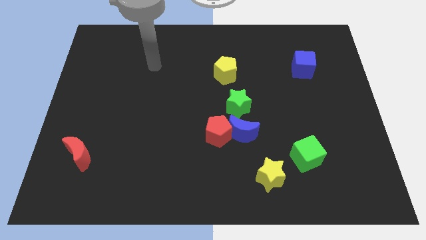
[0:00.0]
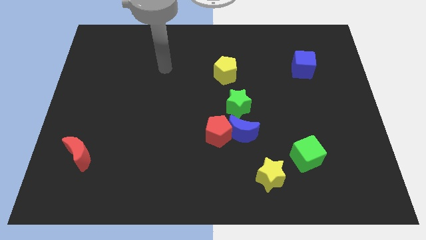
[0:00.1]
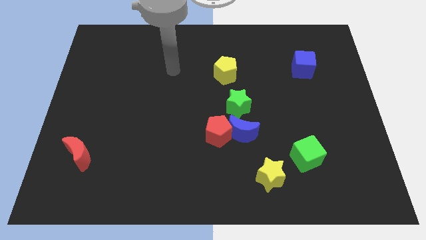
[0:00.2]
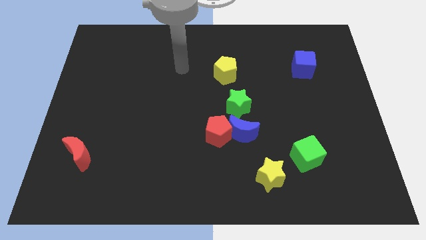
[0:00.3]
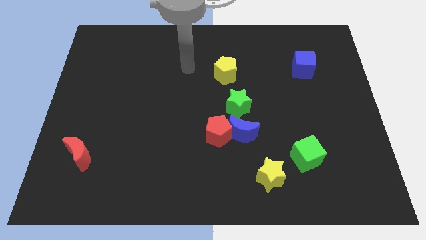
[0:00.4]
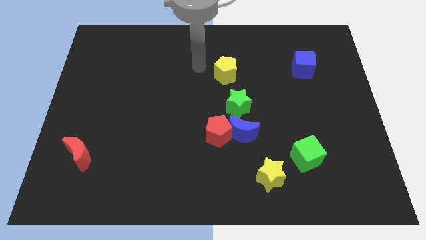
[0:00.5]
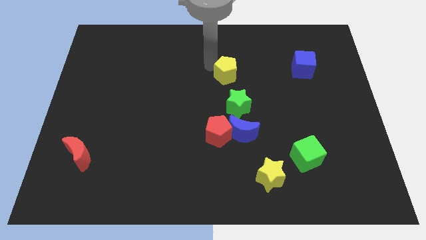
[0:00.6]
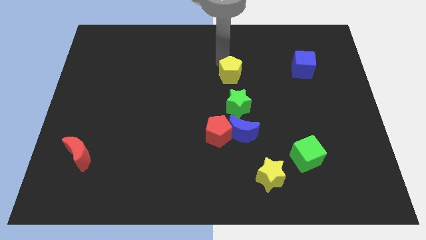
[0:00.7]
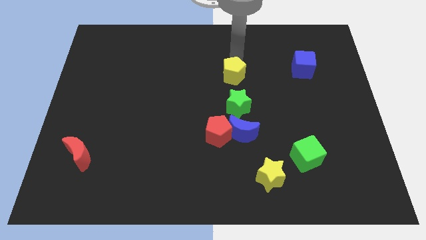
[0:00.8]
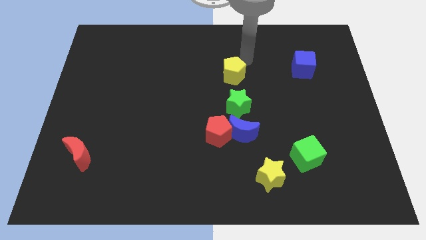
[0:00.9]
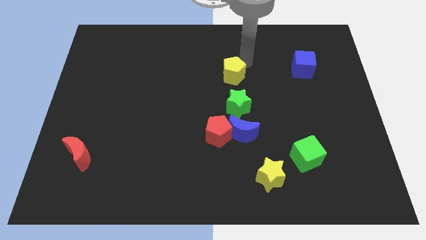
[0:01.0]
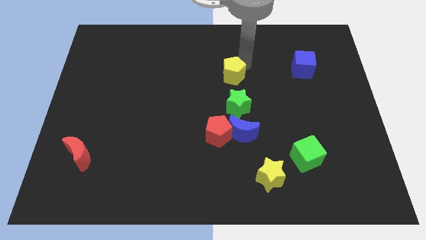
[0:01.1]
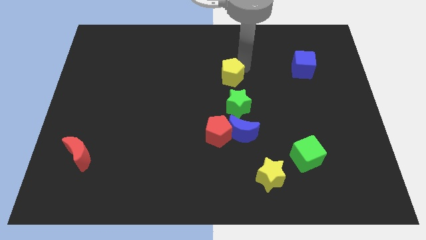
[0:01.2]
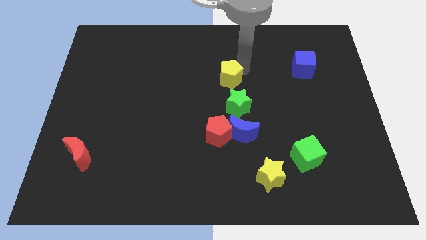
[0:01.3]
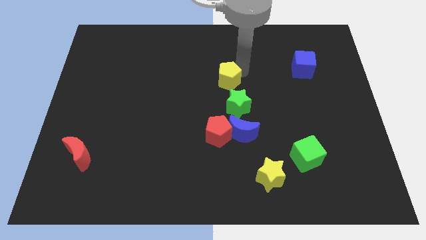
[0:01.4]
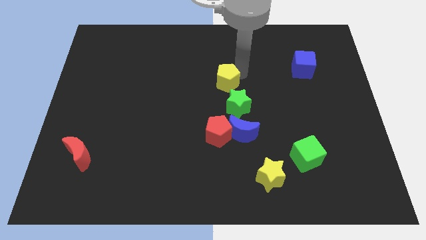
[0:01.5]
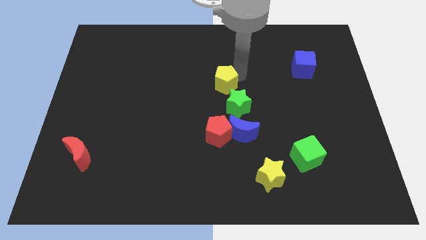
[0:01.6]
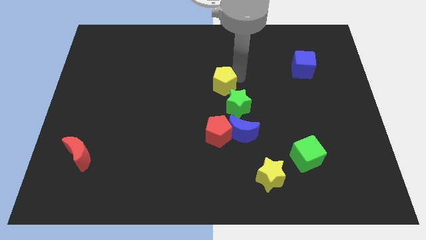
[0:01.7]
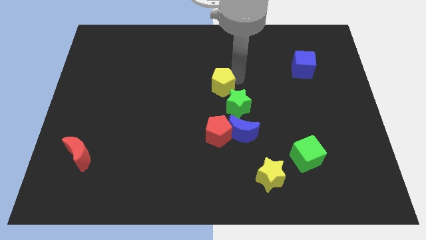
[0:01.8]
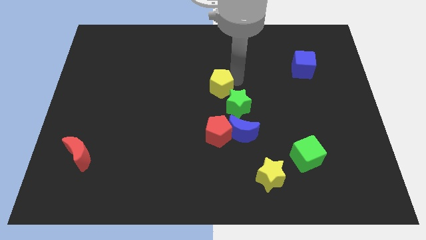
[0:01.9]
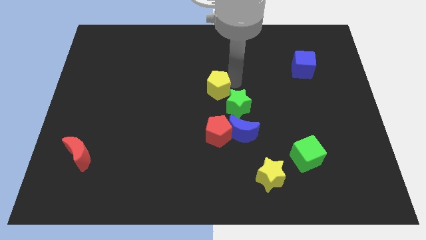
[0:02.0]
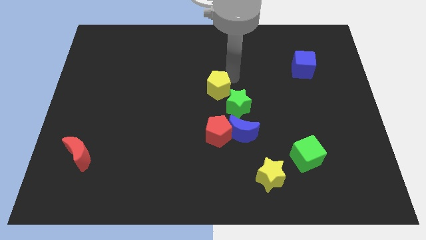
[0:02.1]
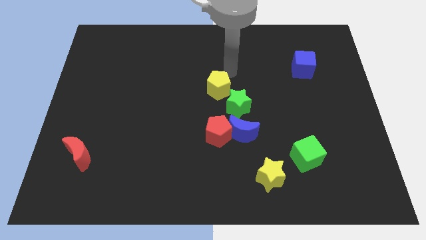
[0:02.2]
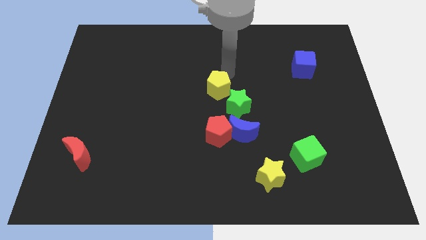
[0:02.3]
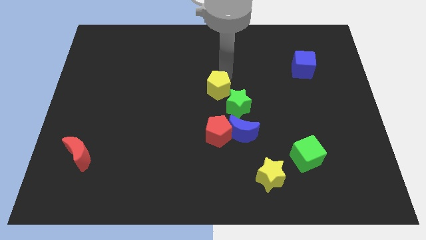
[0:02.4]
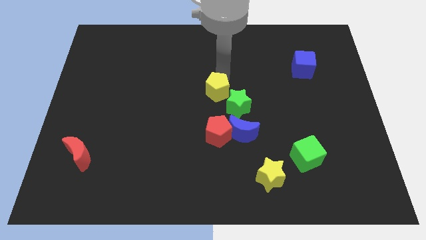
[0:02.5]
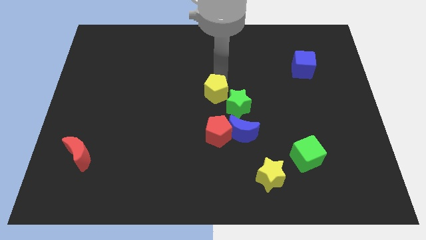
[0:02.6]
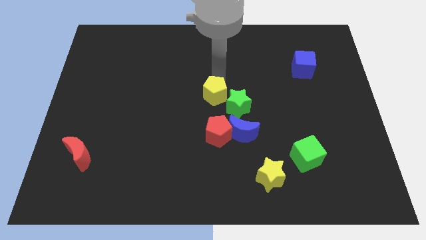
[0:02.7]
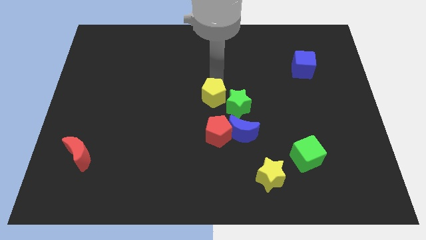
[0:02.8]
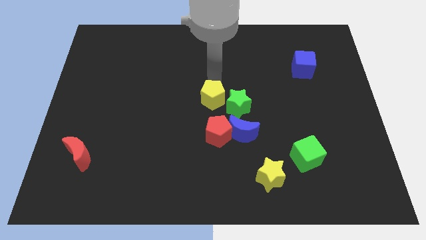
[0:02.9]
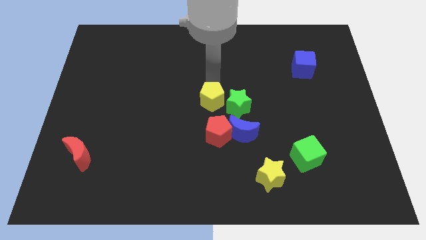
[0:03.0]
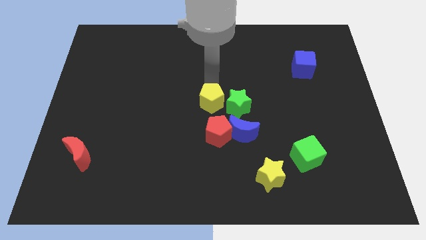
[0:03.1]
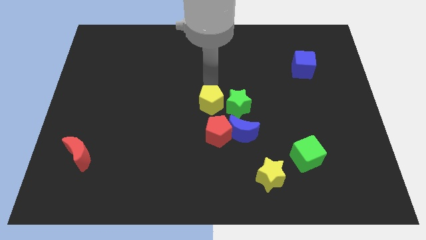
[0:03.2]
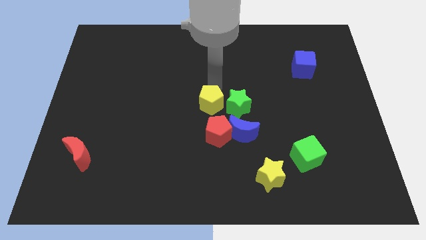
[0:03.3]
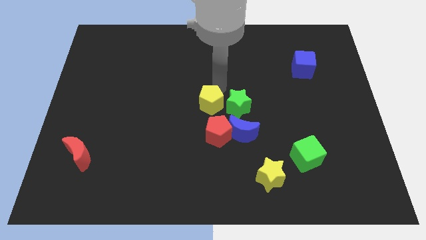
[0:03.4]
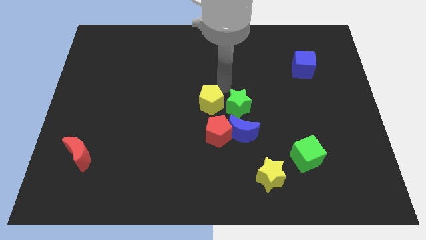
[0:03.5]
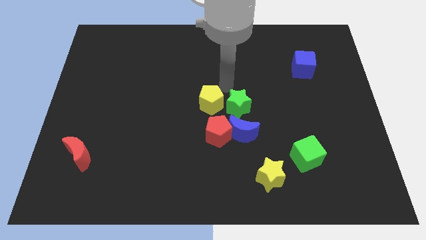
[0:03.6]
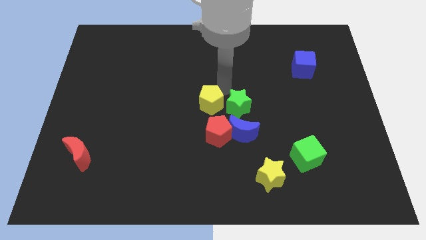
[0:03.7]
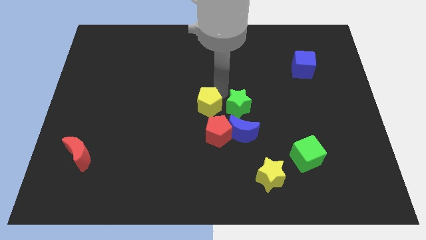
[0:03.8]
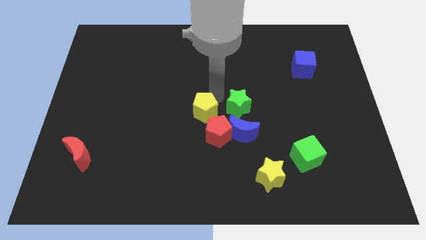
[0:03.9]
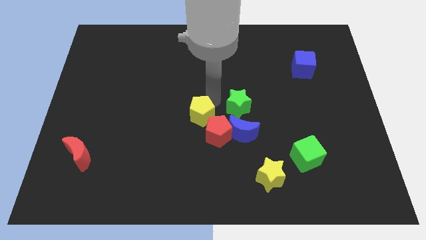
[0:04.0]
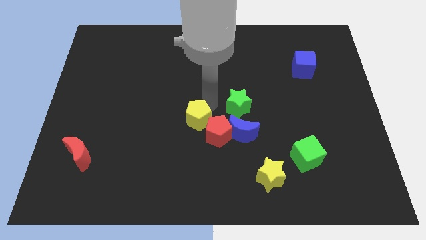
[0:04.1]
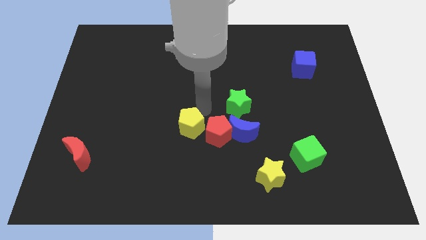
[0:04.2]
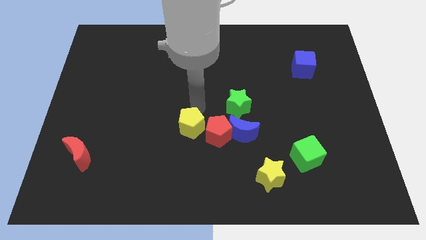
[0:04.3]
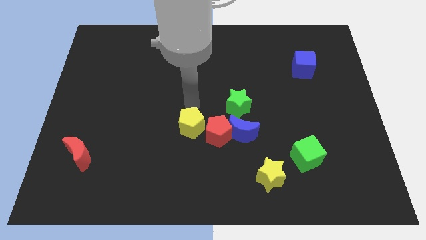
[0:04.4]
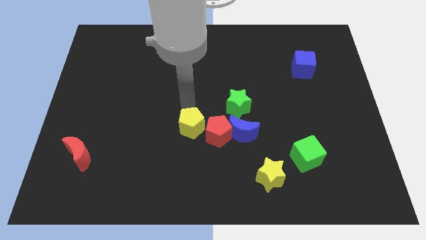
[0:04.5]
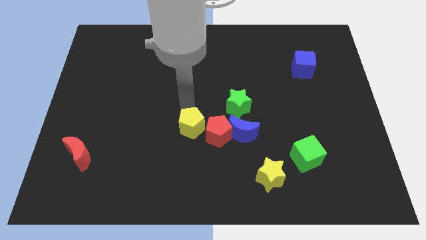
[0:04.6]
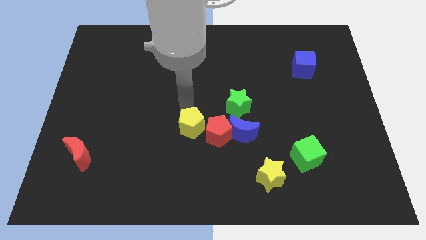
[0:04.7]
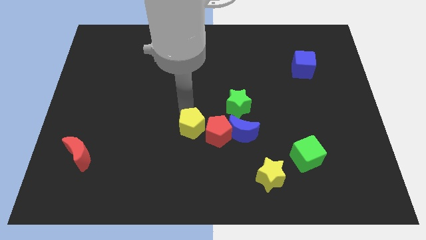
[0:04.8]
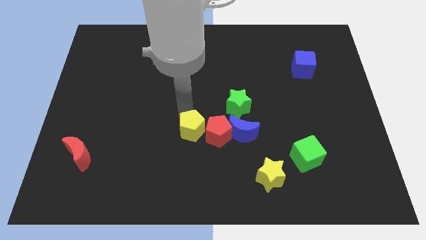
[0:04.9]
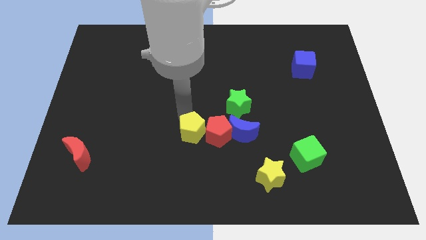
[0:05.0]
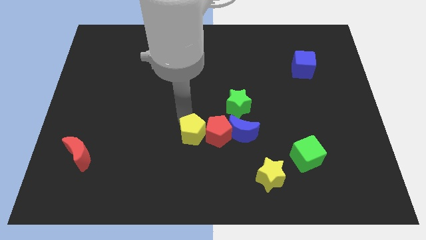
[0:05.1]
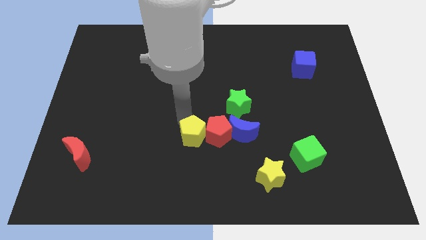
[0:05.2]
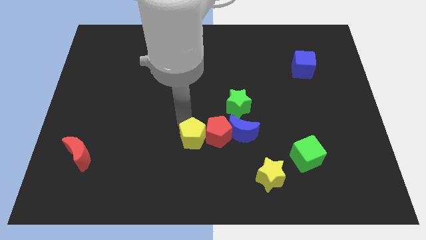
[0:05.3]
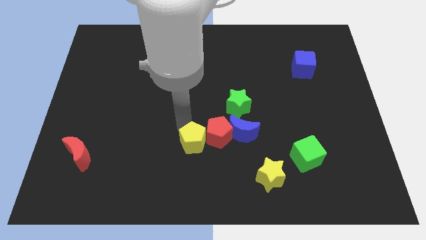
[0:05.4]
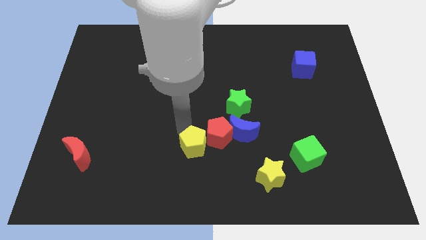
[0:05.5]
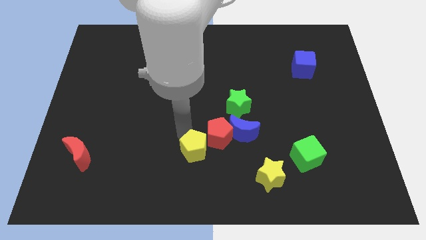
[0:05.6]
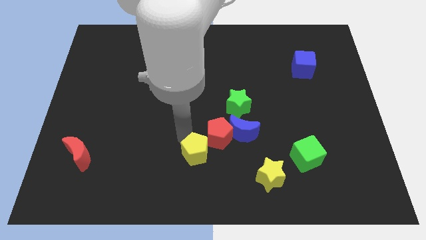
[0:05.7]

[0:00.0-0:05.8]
move the yellow pentagon to the bottom side of the red pentagon

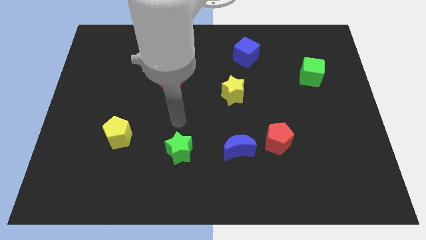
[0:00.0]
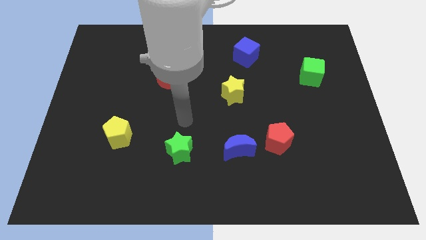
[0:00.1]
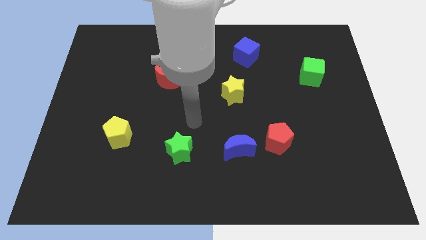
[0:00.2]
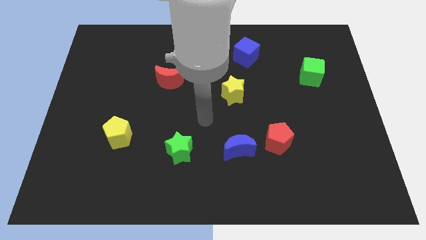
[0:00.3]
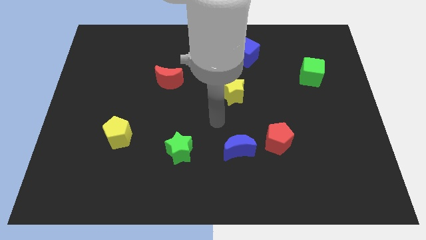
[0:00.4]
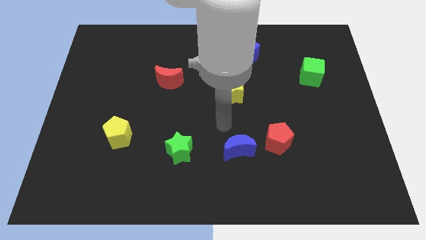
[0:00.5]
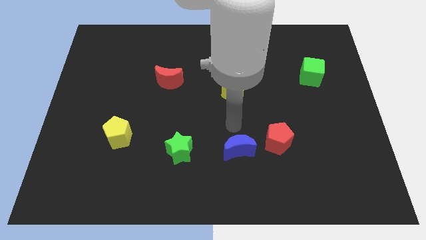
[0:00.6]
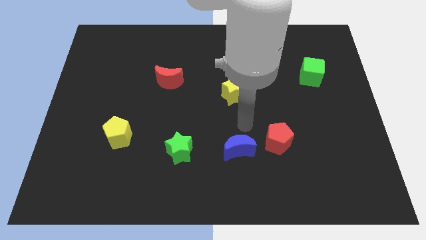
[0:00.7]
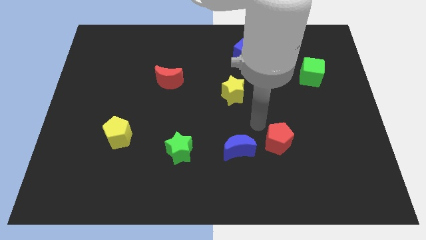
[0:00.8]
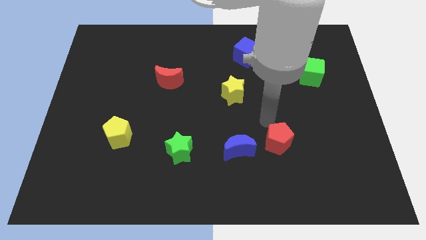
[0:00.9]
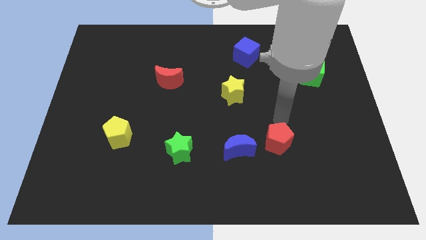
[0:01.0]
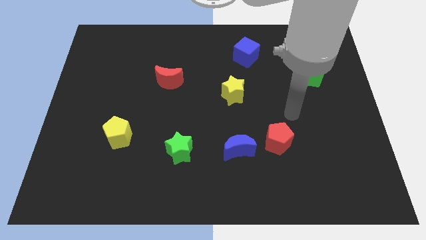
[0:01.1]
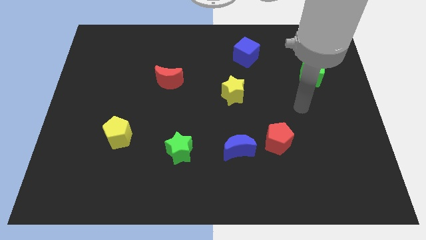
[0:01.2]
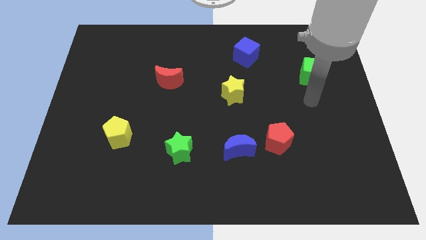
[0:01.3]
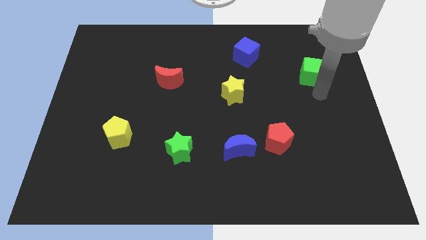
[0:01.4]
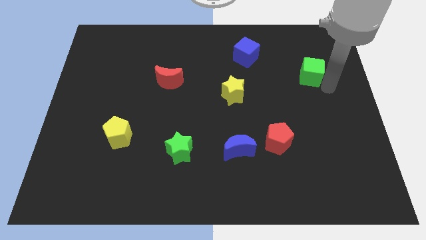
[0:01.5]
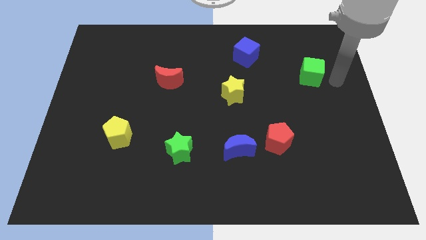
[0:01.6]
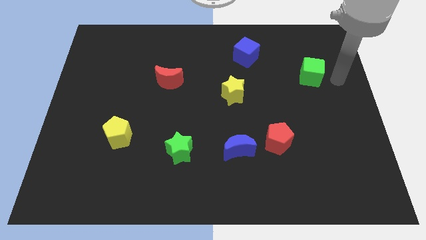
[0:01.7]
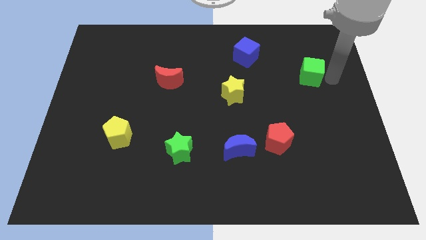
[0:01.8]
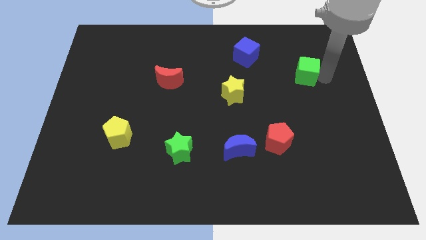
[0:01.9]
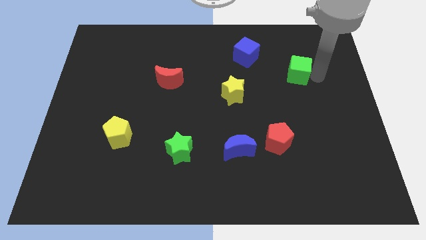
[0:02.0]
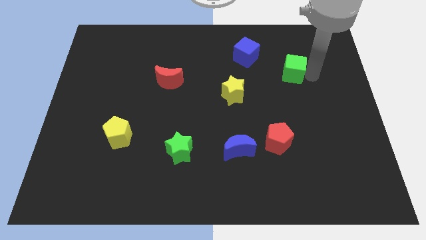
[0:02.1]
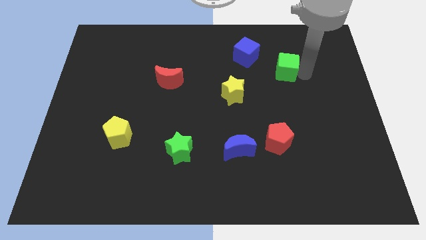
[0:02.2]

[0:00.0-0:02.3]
slide the green cube to the bottom right of the blue cube

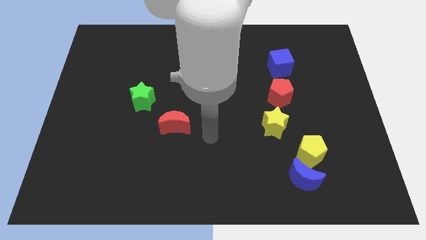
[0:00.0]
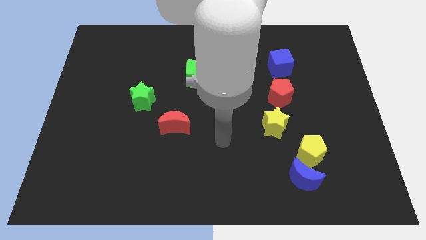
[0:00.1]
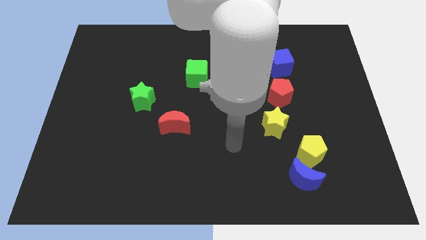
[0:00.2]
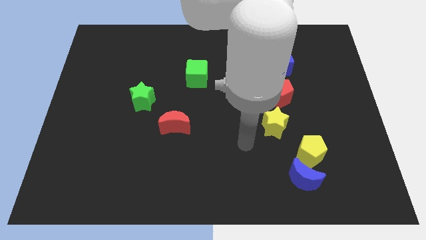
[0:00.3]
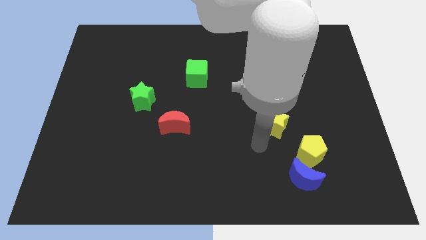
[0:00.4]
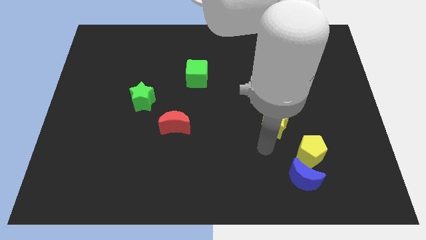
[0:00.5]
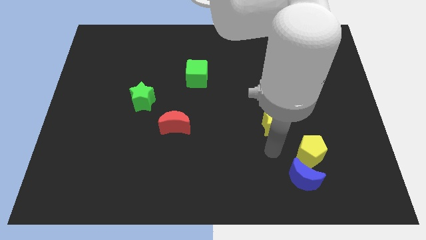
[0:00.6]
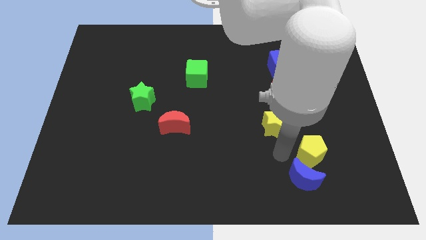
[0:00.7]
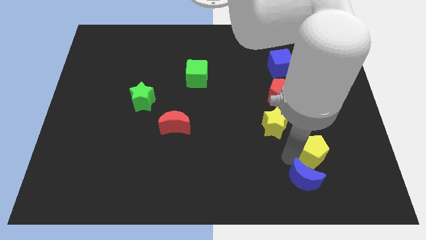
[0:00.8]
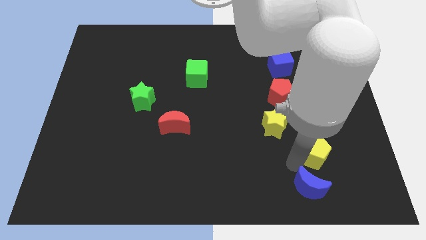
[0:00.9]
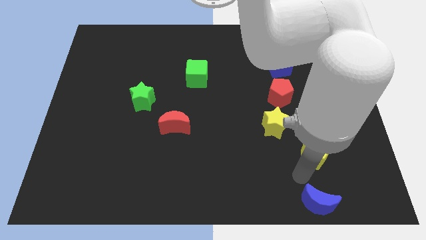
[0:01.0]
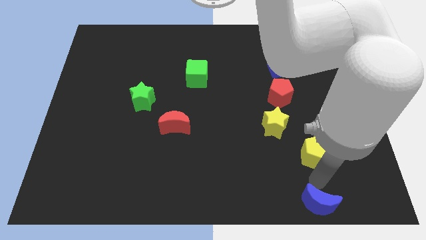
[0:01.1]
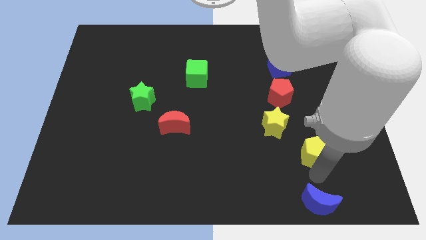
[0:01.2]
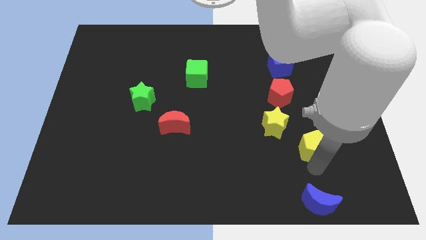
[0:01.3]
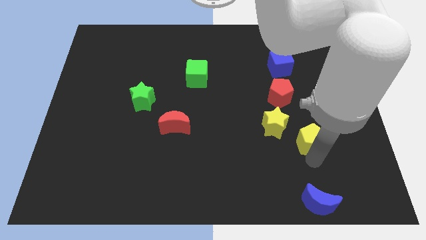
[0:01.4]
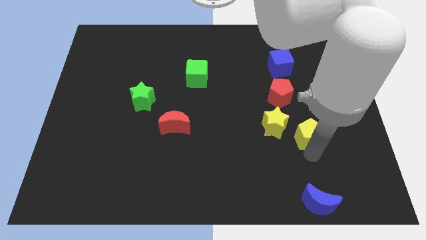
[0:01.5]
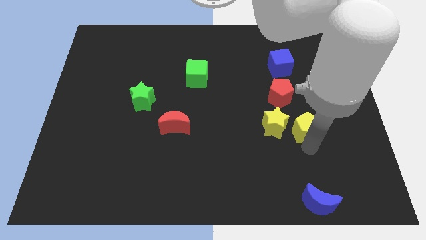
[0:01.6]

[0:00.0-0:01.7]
push the yellow pentagon diagonally down and to the right of the red pentagon
